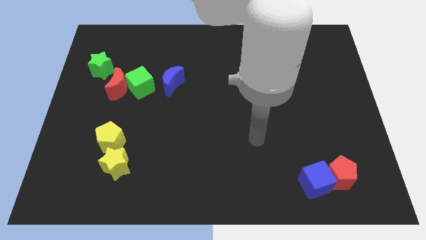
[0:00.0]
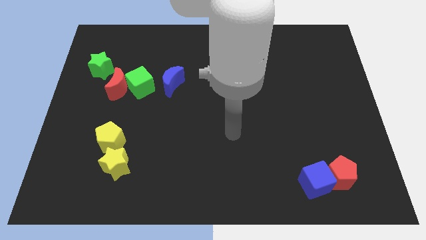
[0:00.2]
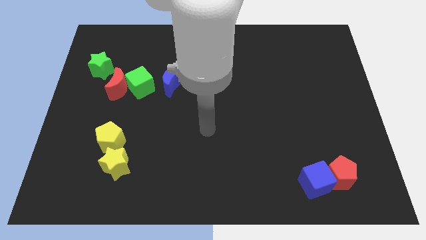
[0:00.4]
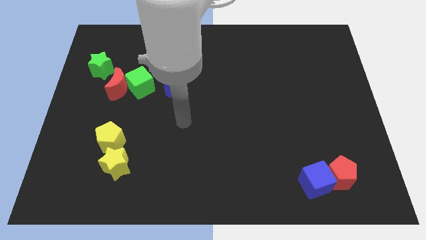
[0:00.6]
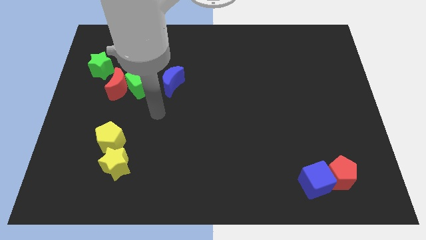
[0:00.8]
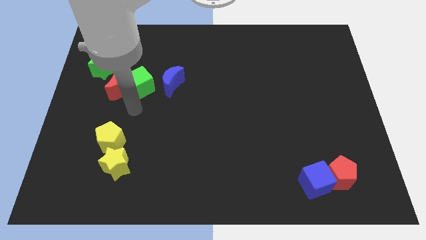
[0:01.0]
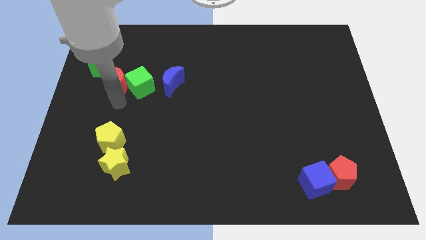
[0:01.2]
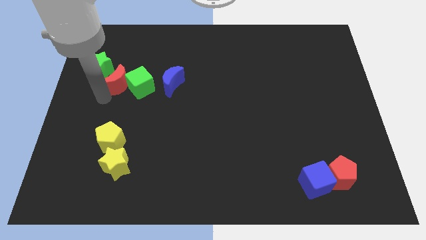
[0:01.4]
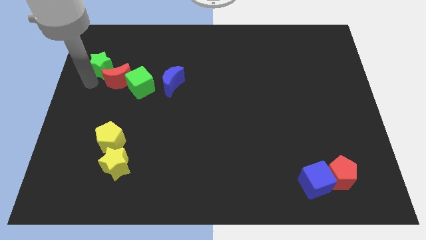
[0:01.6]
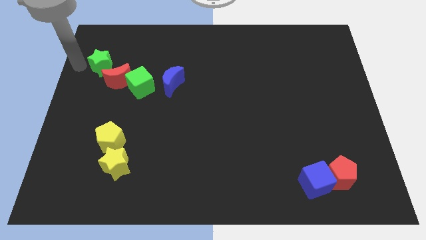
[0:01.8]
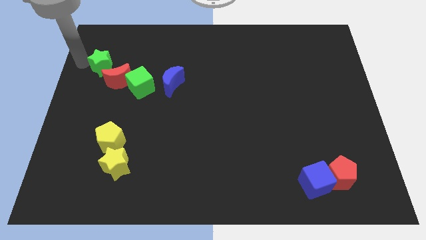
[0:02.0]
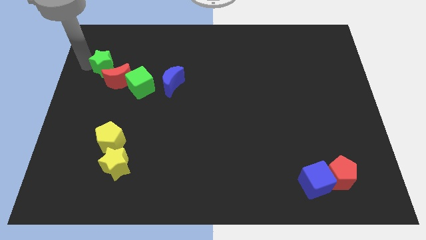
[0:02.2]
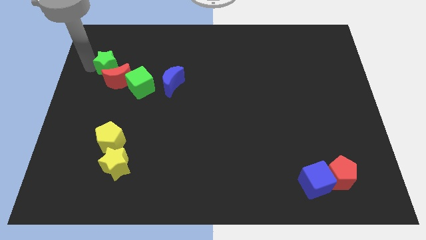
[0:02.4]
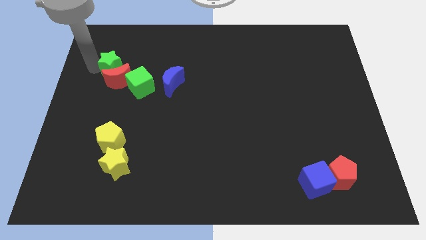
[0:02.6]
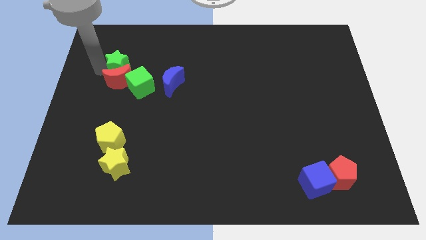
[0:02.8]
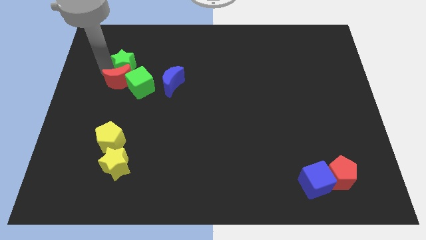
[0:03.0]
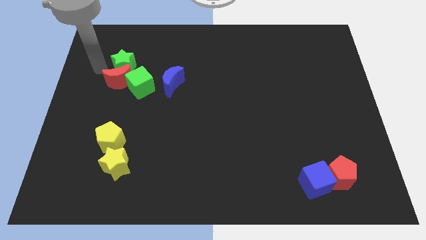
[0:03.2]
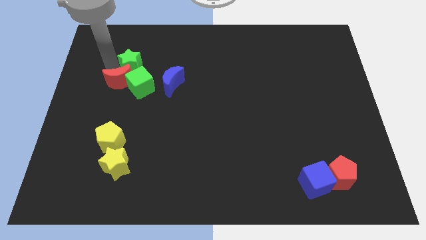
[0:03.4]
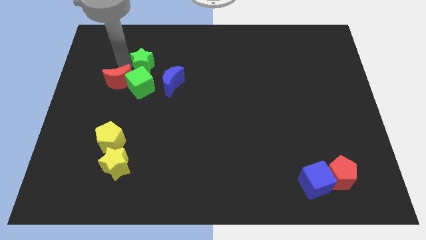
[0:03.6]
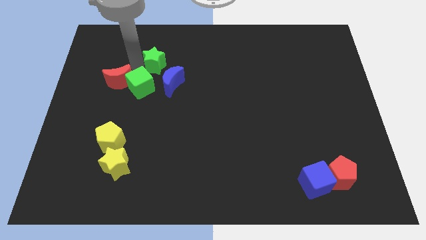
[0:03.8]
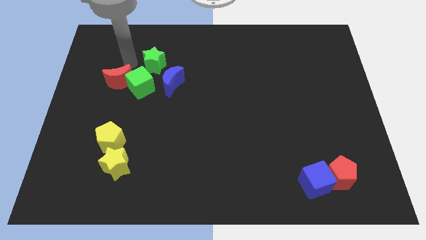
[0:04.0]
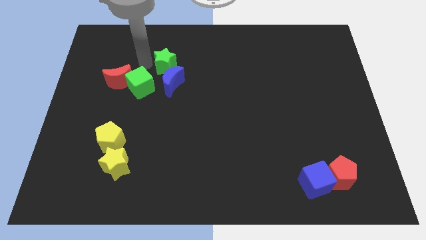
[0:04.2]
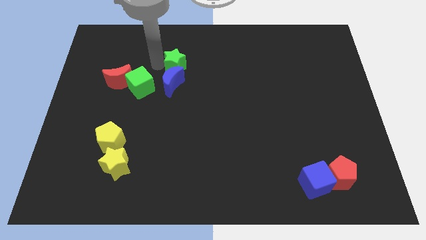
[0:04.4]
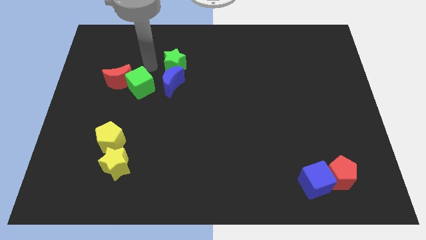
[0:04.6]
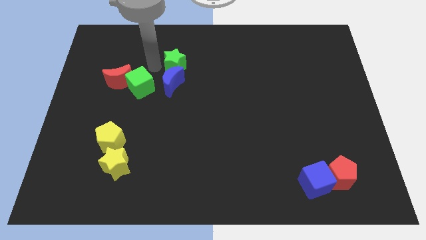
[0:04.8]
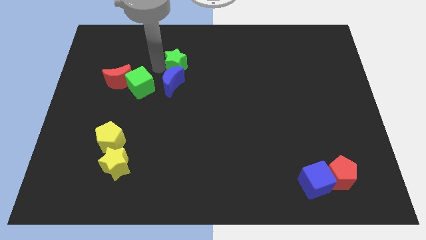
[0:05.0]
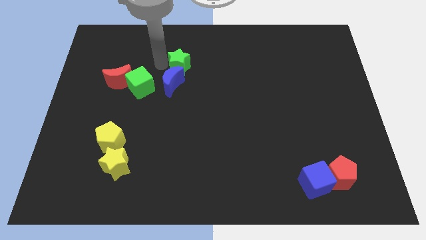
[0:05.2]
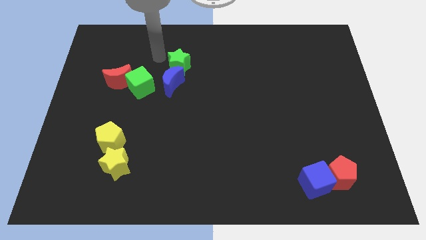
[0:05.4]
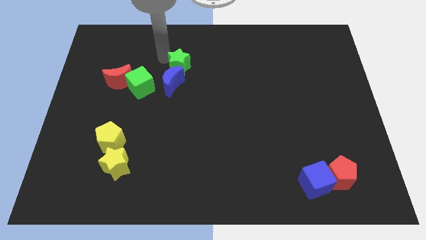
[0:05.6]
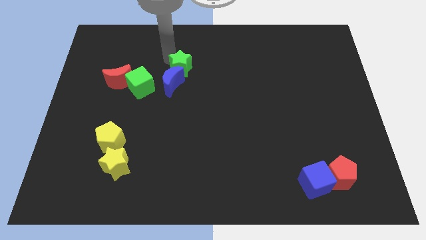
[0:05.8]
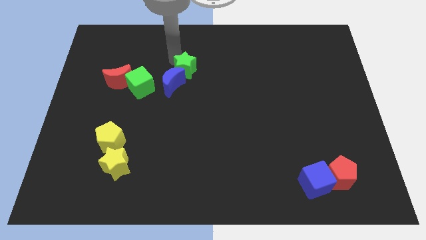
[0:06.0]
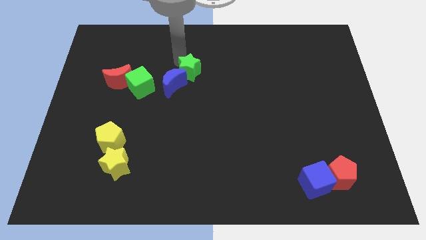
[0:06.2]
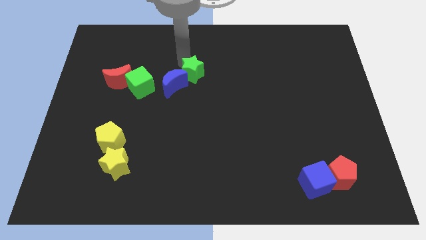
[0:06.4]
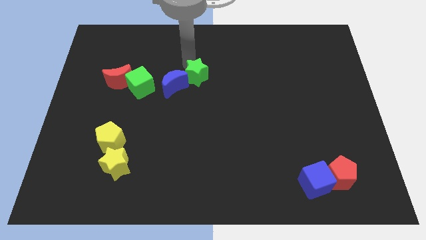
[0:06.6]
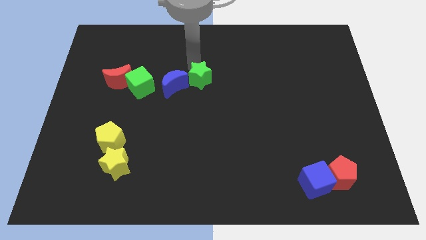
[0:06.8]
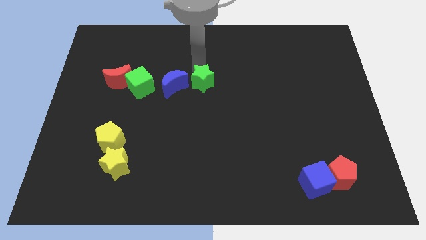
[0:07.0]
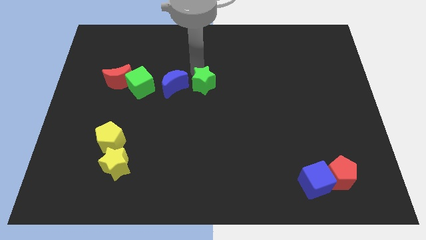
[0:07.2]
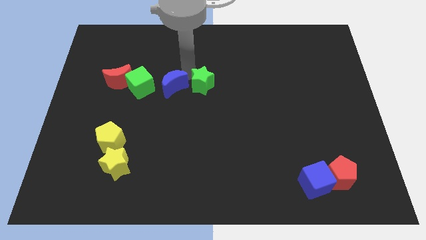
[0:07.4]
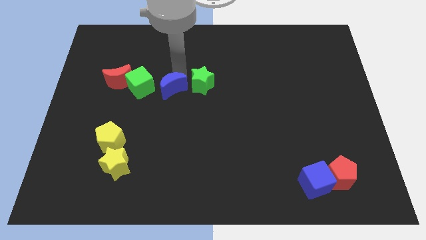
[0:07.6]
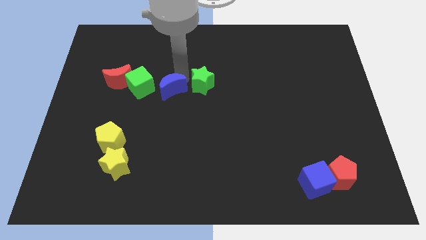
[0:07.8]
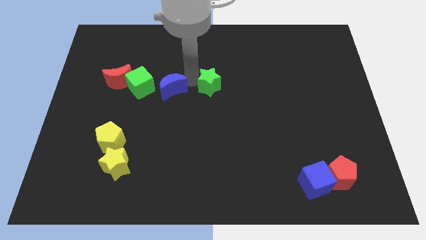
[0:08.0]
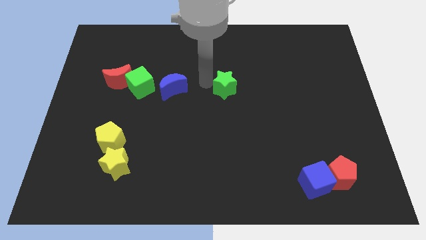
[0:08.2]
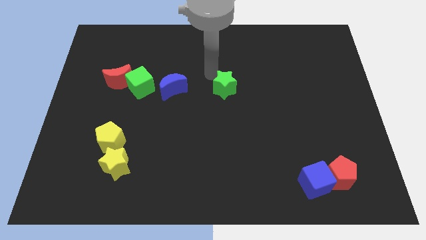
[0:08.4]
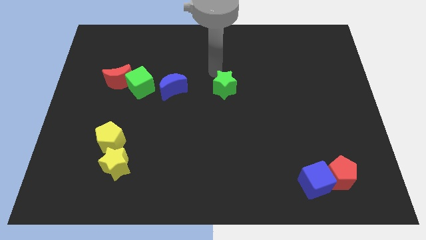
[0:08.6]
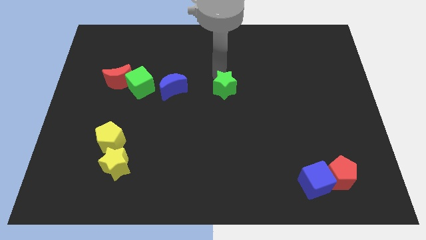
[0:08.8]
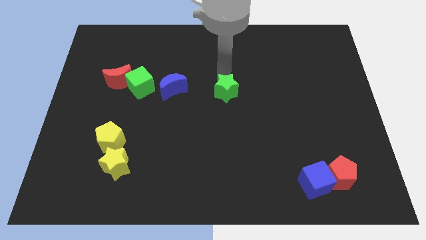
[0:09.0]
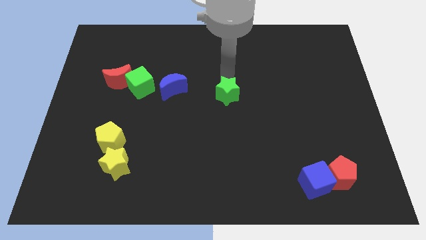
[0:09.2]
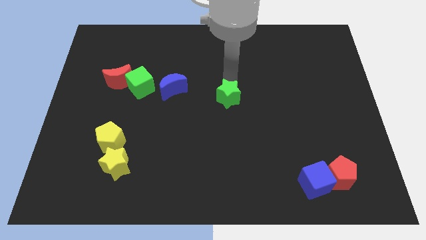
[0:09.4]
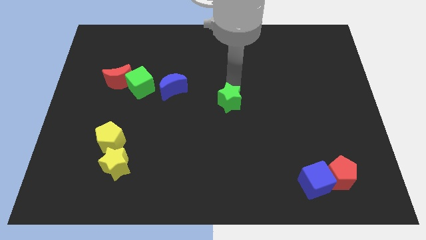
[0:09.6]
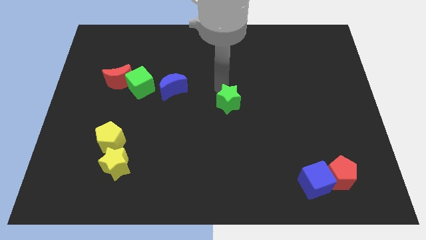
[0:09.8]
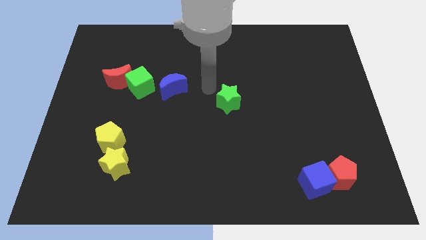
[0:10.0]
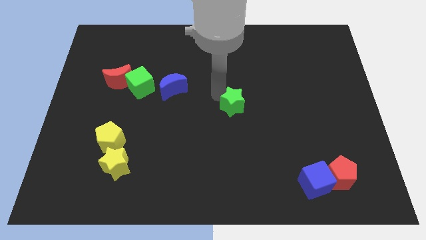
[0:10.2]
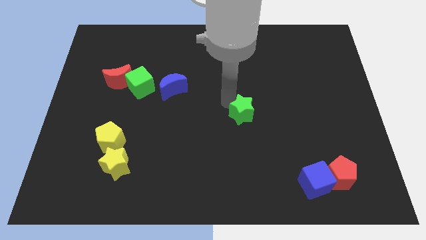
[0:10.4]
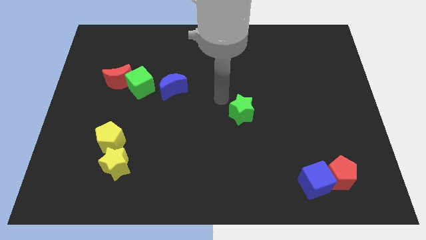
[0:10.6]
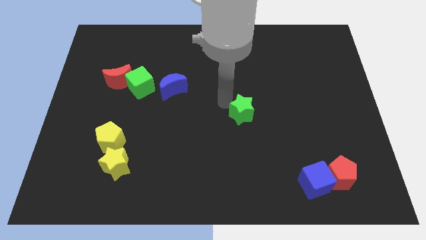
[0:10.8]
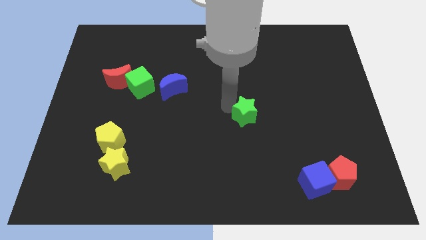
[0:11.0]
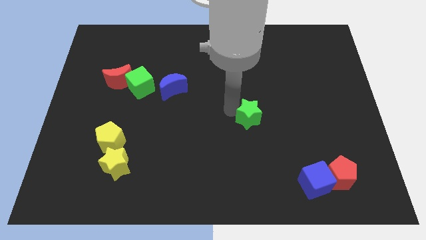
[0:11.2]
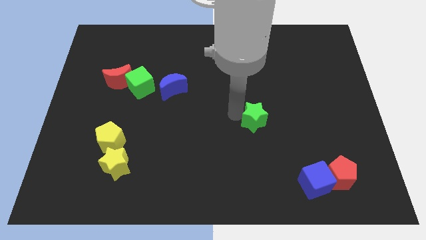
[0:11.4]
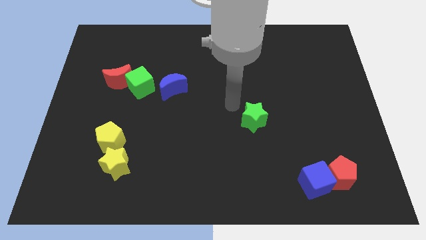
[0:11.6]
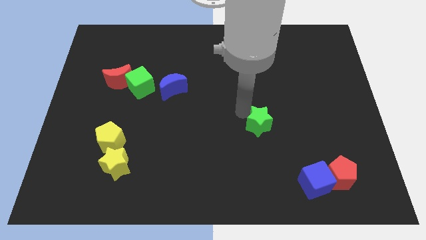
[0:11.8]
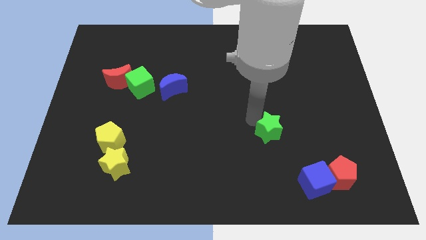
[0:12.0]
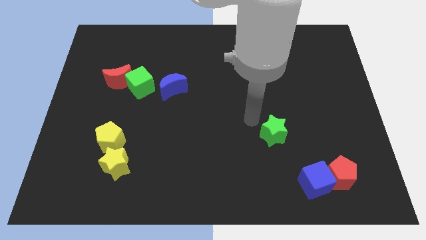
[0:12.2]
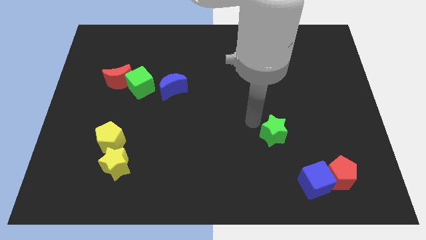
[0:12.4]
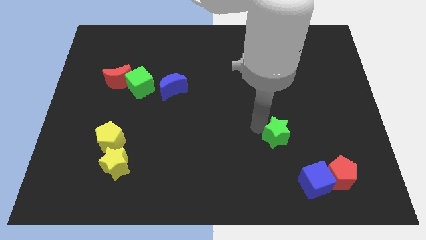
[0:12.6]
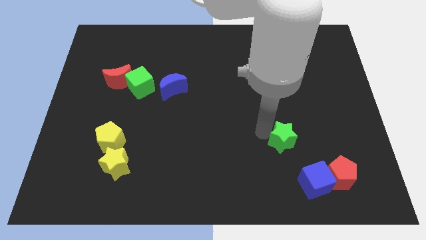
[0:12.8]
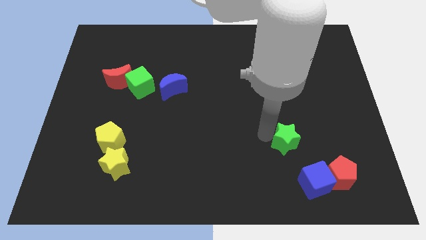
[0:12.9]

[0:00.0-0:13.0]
put the green star to the top left side of the red pentagon
